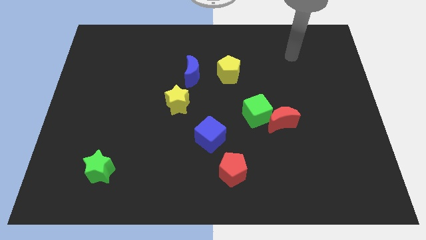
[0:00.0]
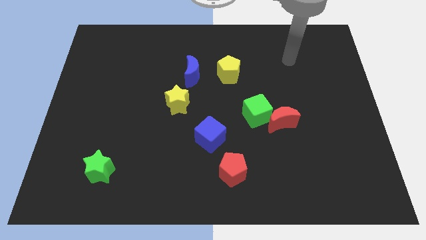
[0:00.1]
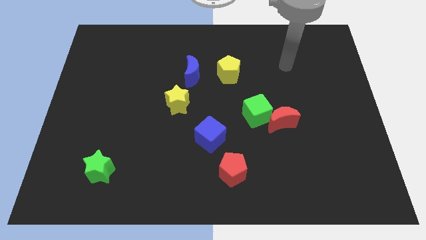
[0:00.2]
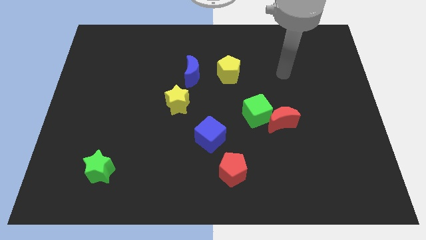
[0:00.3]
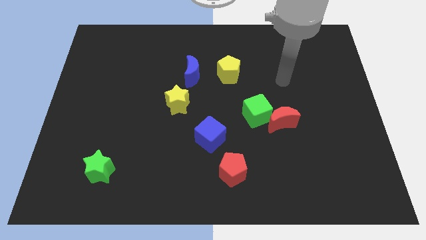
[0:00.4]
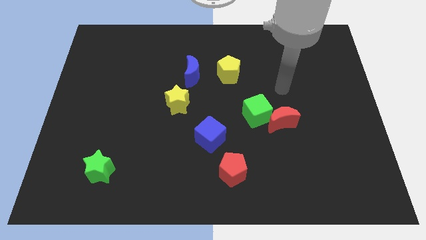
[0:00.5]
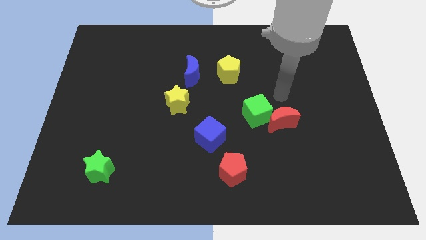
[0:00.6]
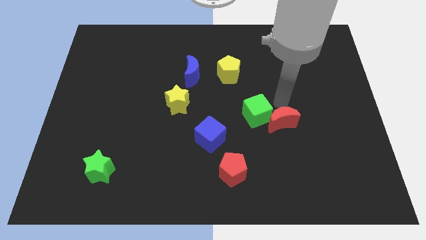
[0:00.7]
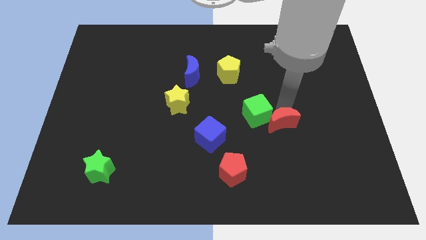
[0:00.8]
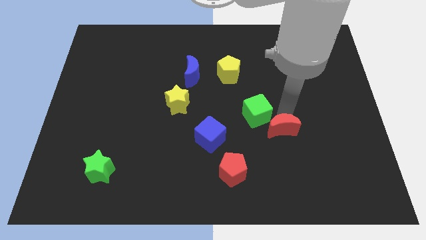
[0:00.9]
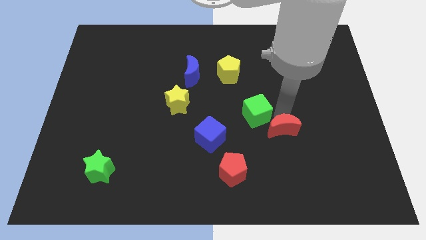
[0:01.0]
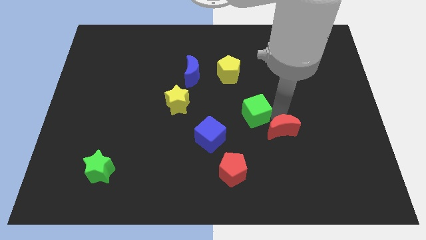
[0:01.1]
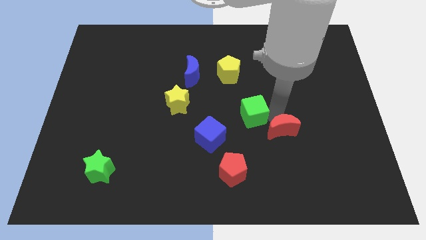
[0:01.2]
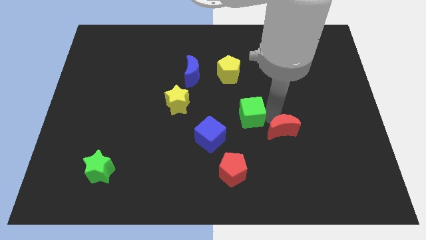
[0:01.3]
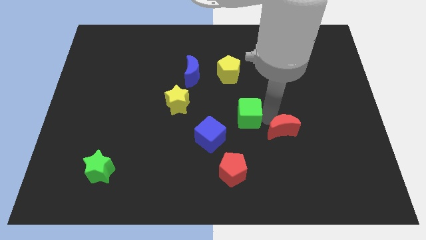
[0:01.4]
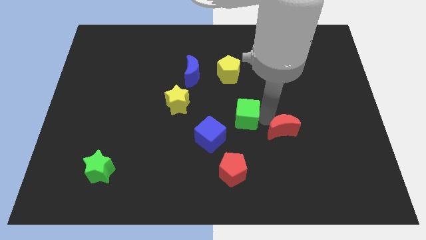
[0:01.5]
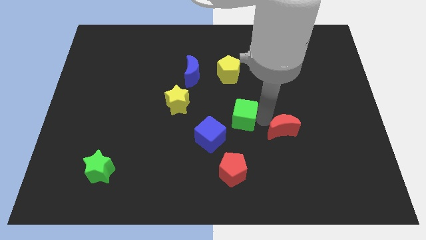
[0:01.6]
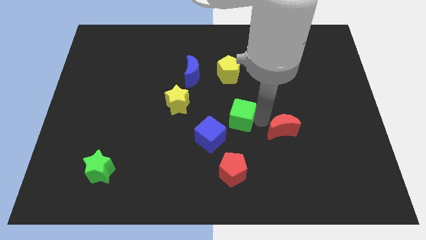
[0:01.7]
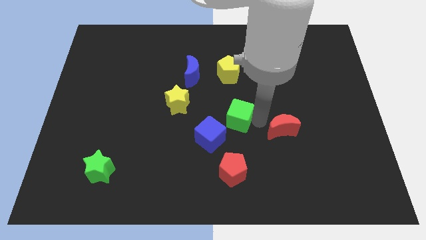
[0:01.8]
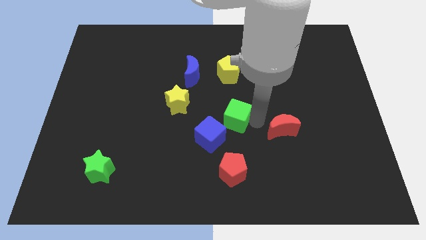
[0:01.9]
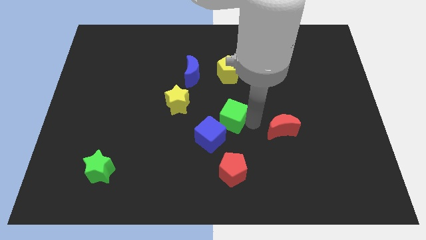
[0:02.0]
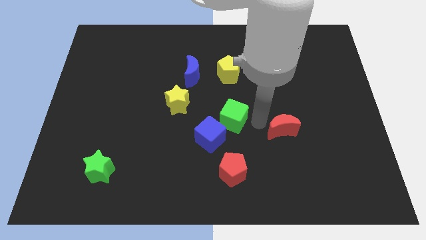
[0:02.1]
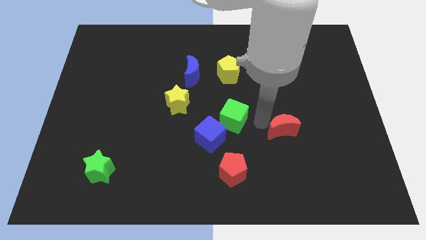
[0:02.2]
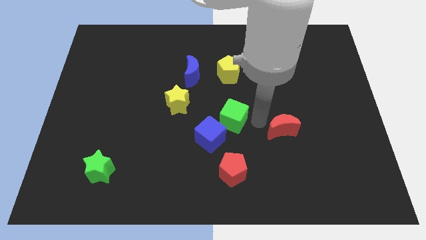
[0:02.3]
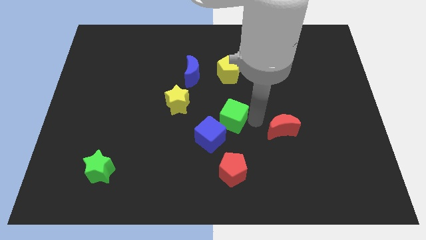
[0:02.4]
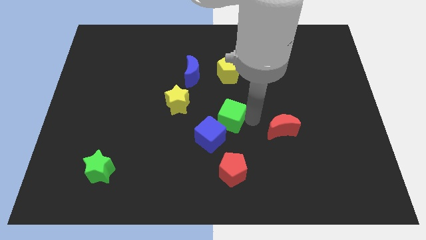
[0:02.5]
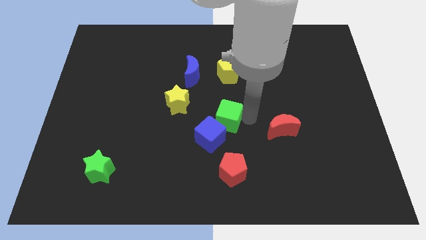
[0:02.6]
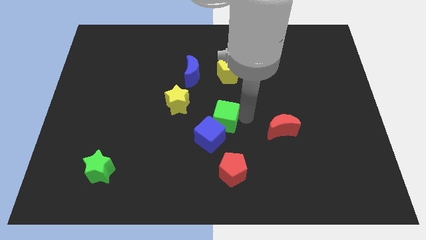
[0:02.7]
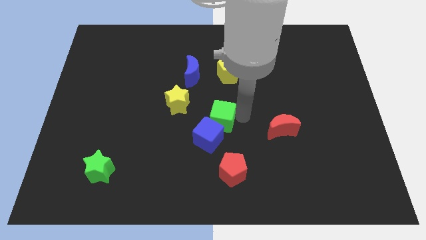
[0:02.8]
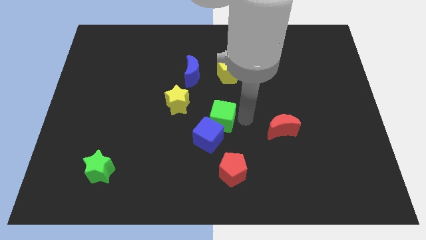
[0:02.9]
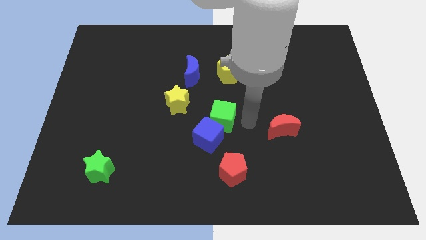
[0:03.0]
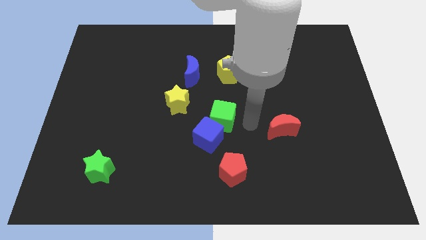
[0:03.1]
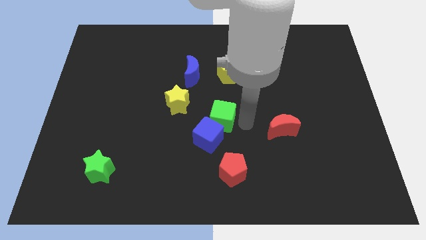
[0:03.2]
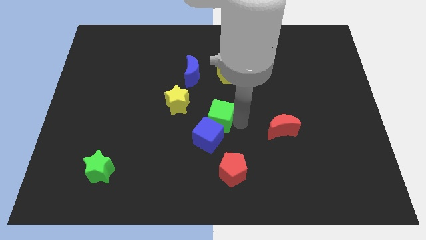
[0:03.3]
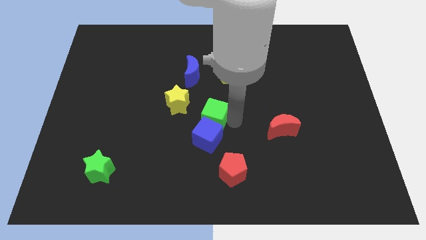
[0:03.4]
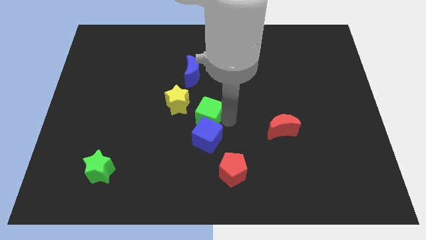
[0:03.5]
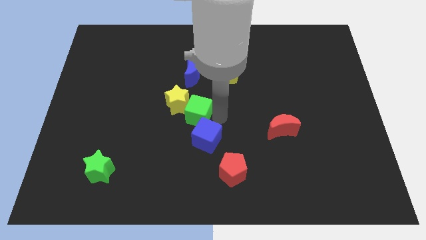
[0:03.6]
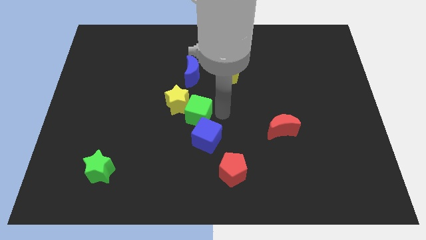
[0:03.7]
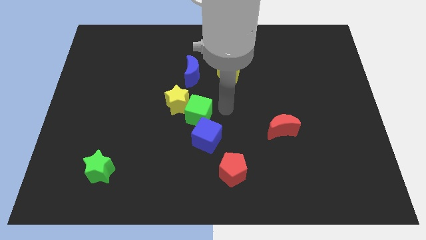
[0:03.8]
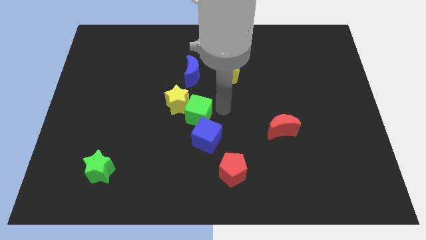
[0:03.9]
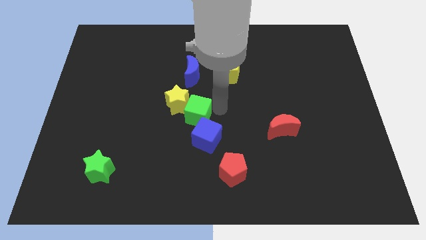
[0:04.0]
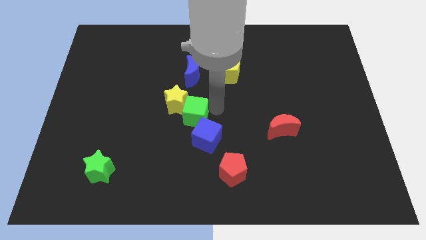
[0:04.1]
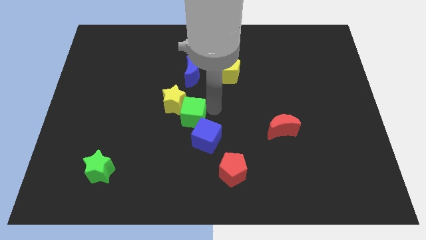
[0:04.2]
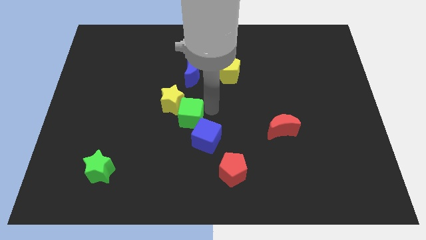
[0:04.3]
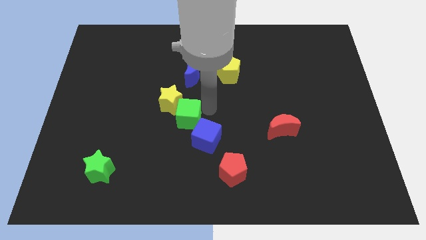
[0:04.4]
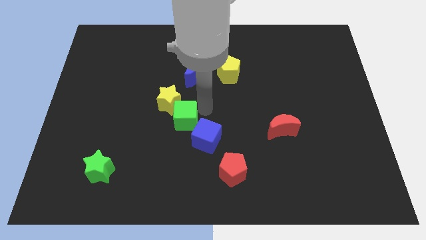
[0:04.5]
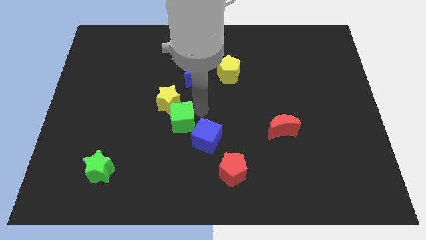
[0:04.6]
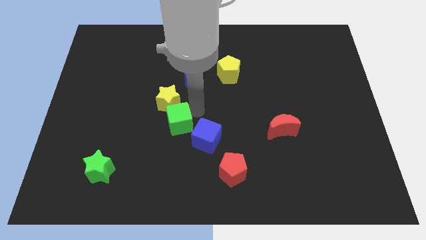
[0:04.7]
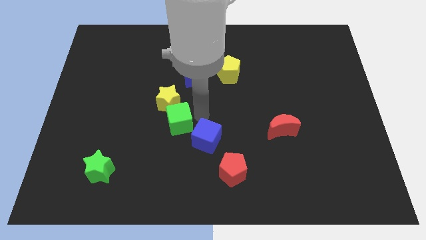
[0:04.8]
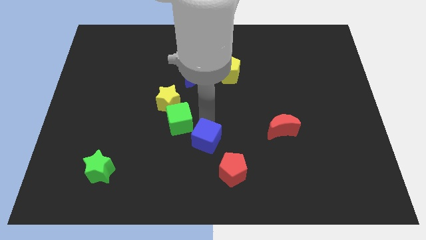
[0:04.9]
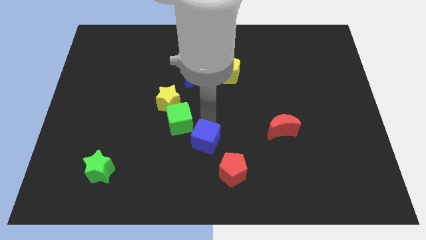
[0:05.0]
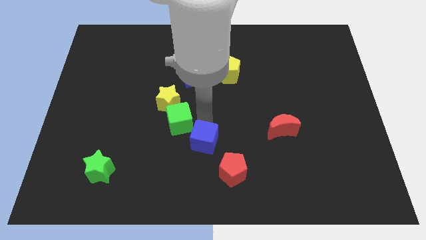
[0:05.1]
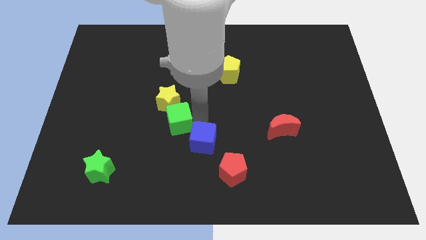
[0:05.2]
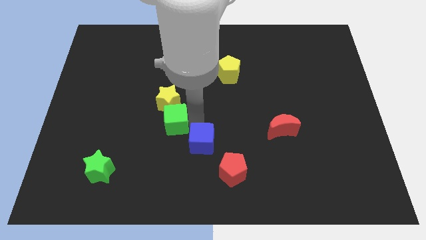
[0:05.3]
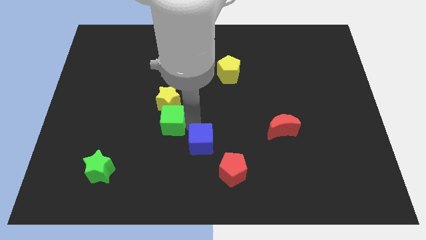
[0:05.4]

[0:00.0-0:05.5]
put the green cube diagonally down and to the left of the yellow star

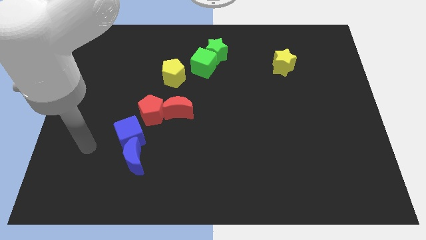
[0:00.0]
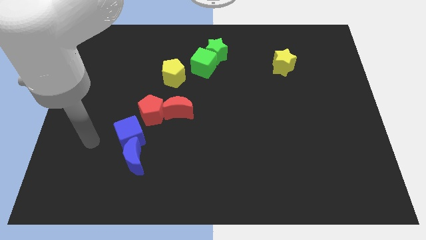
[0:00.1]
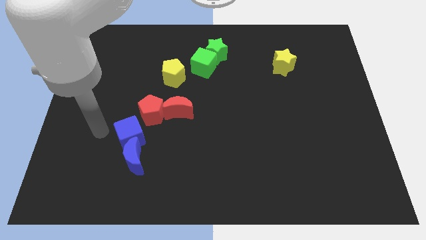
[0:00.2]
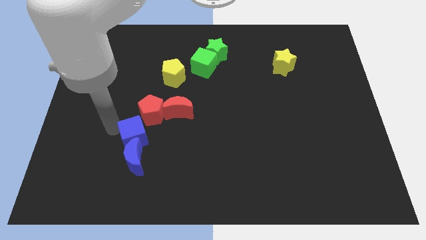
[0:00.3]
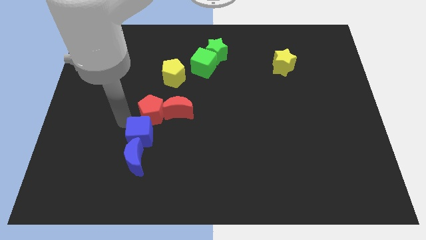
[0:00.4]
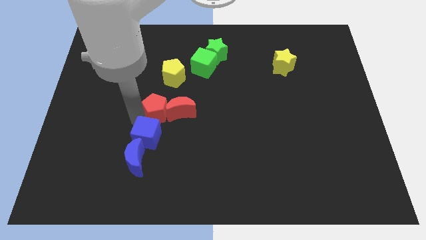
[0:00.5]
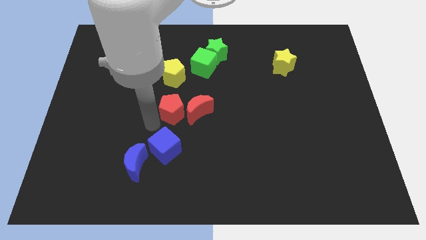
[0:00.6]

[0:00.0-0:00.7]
put the red moon to the bottom side of the green cube
